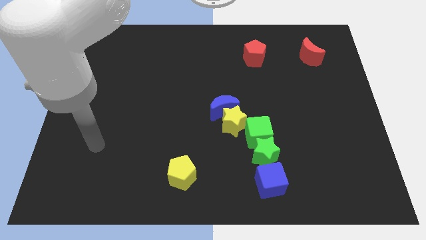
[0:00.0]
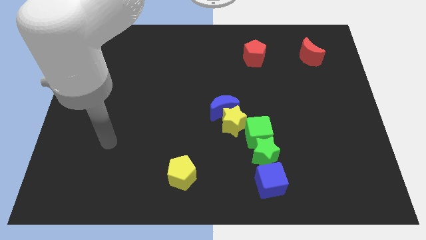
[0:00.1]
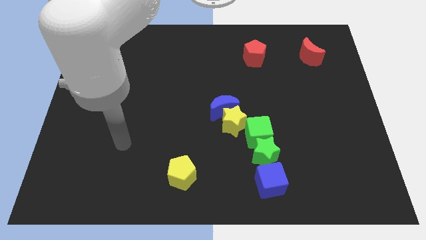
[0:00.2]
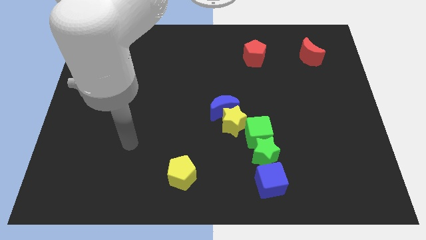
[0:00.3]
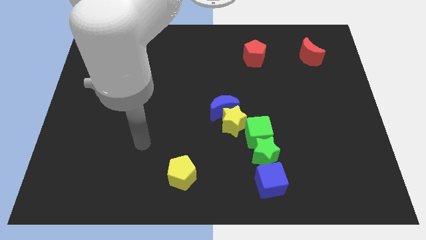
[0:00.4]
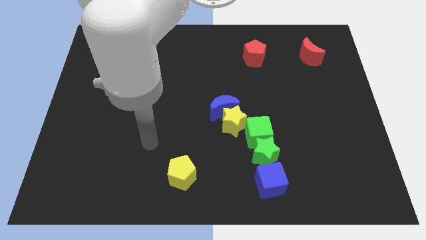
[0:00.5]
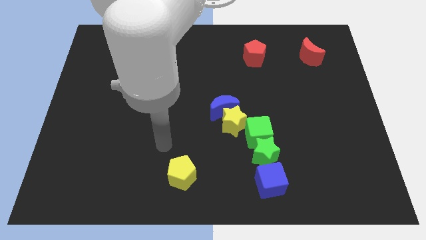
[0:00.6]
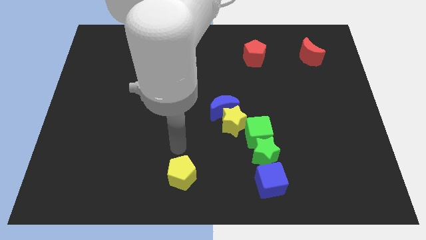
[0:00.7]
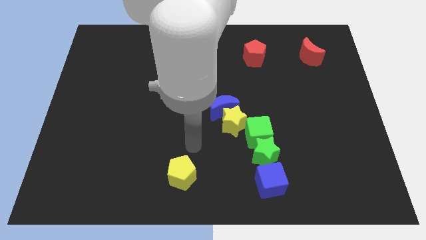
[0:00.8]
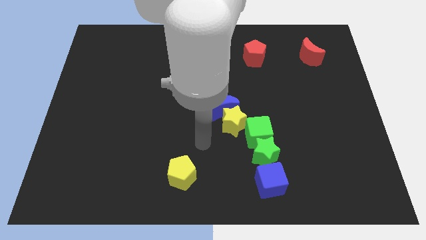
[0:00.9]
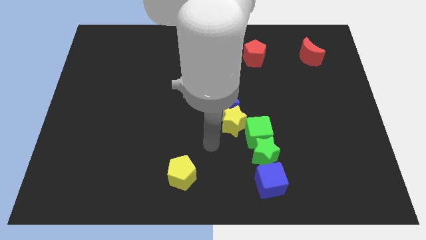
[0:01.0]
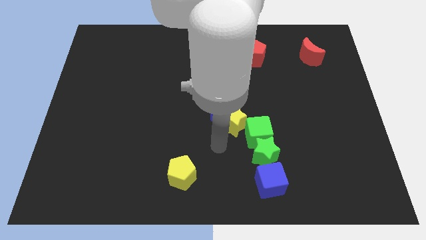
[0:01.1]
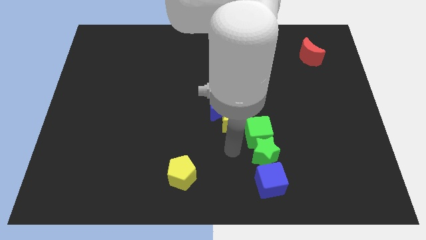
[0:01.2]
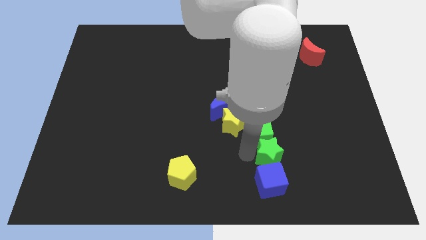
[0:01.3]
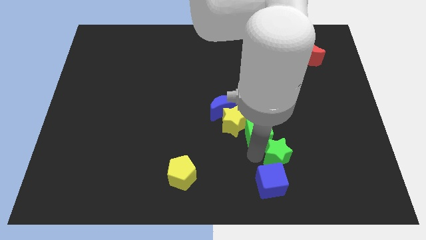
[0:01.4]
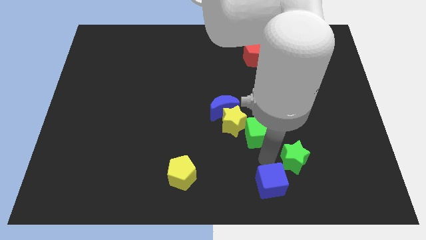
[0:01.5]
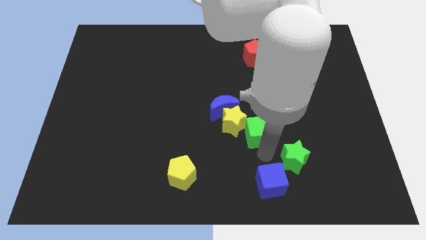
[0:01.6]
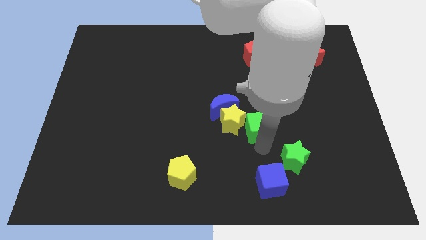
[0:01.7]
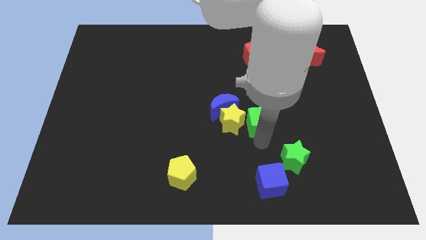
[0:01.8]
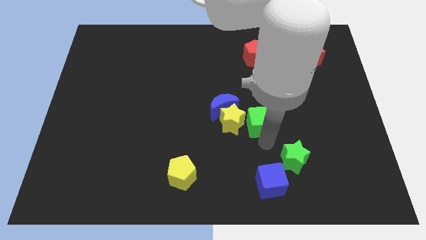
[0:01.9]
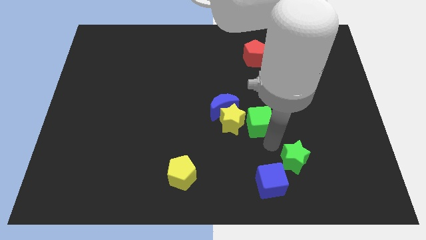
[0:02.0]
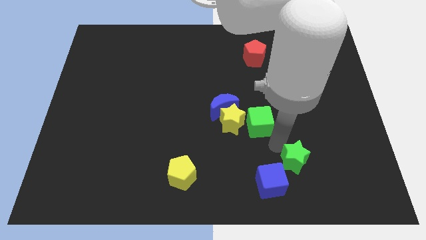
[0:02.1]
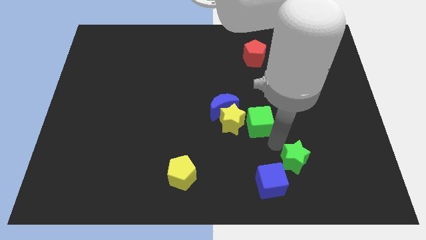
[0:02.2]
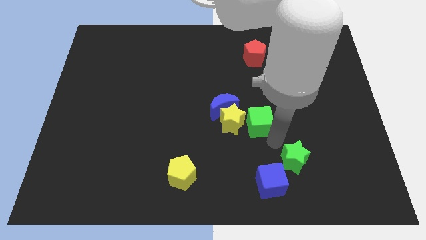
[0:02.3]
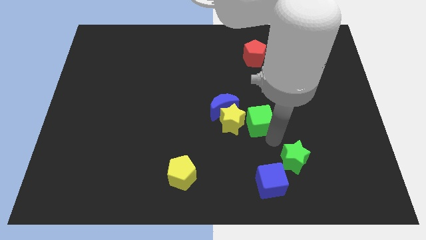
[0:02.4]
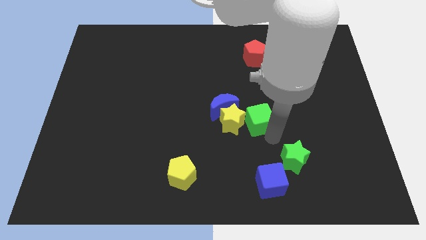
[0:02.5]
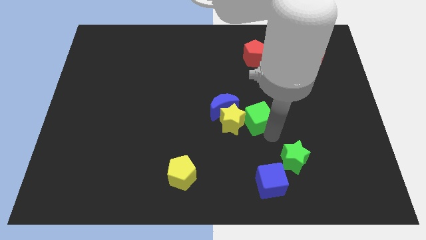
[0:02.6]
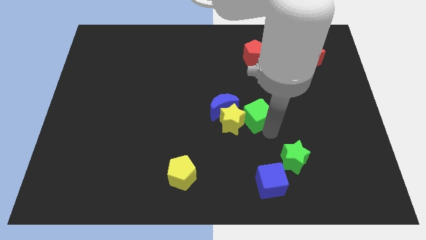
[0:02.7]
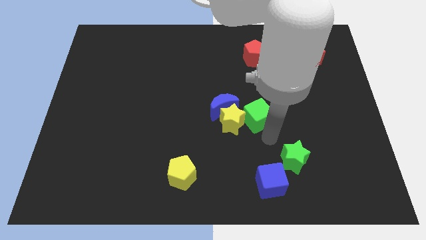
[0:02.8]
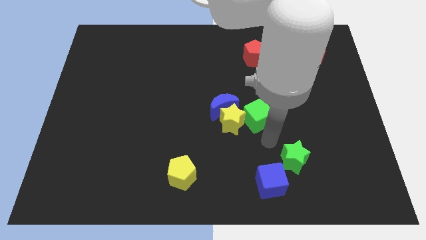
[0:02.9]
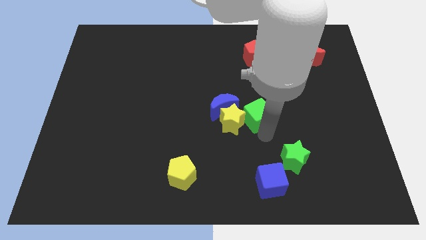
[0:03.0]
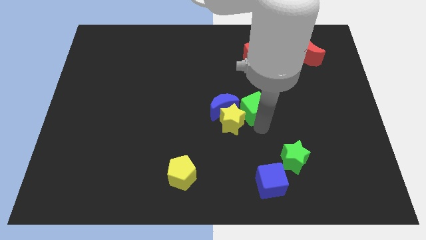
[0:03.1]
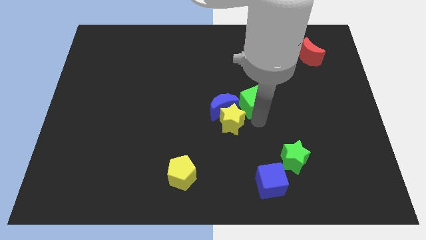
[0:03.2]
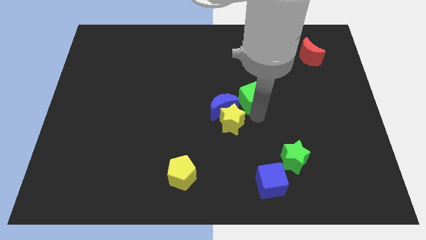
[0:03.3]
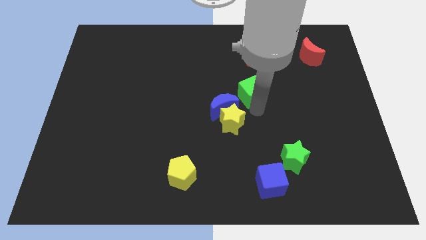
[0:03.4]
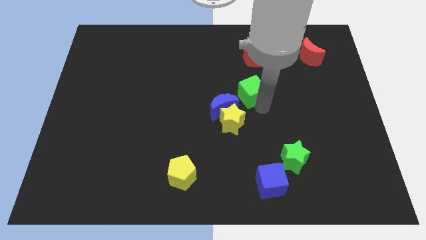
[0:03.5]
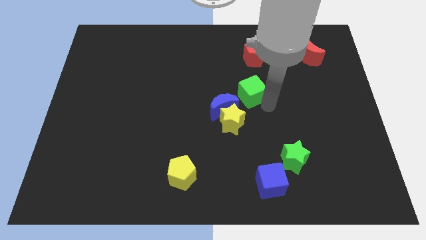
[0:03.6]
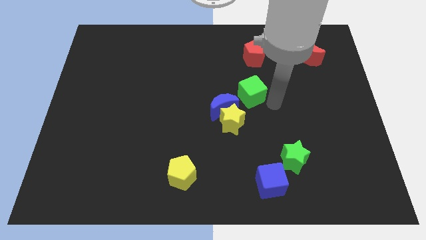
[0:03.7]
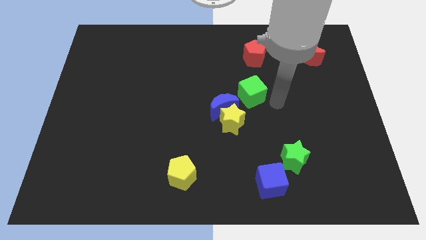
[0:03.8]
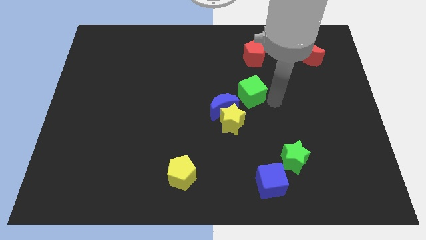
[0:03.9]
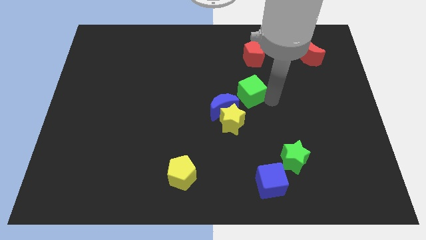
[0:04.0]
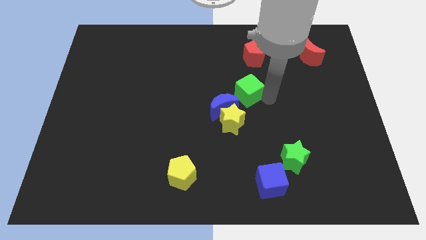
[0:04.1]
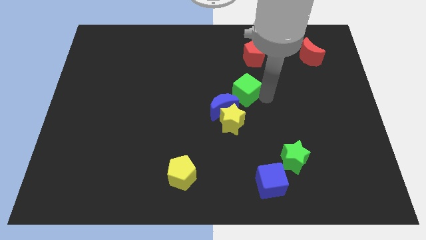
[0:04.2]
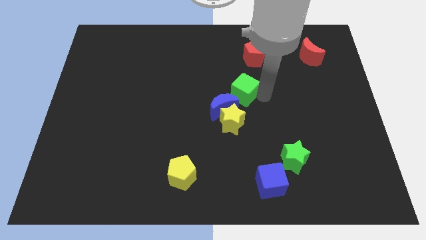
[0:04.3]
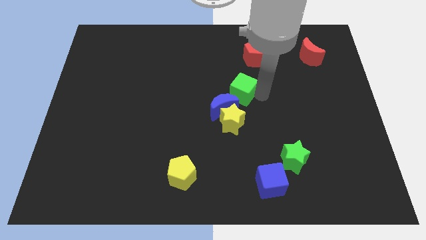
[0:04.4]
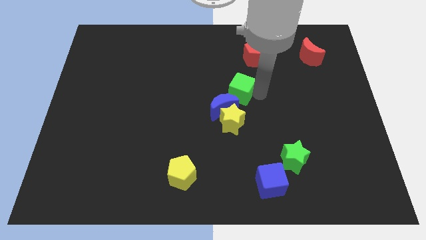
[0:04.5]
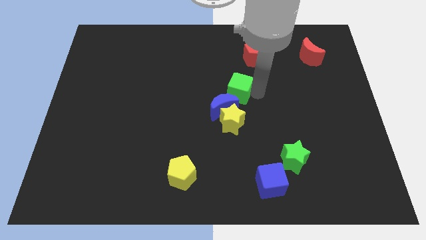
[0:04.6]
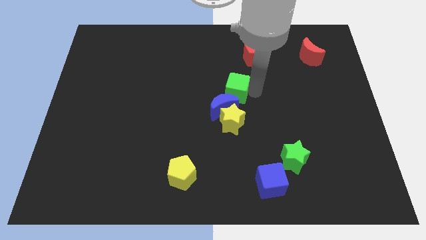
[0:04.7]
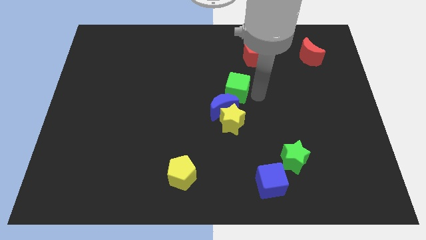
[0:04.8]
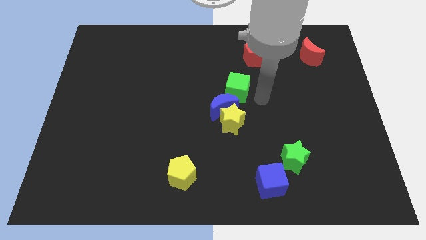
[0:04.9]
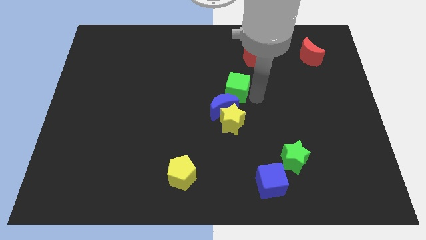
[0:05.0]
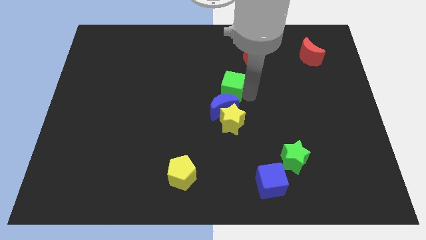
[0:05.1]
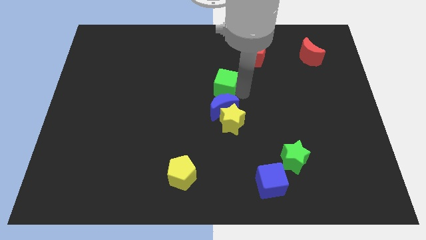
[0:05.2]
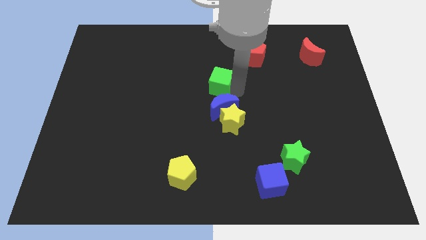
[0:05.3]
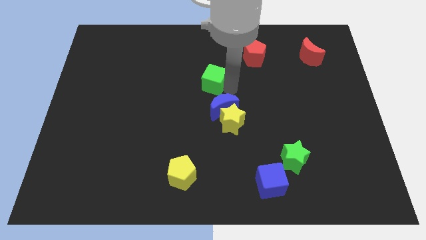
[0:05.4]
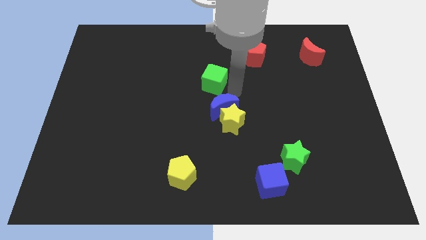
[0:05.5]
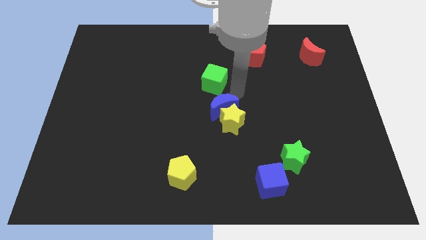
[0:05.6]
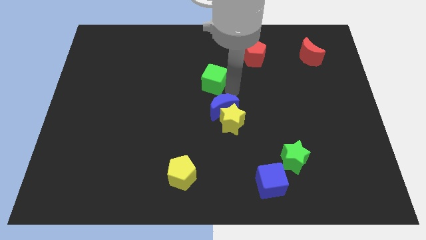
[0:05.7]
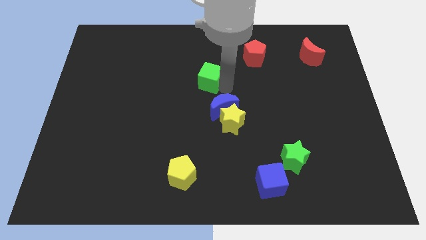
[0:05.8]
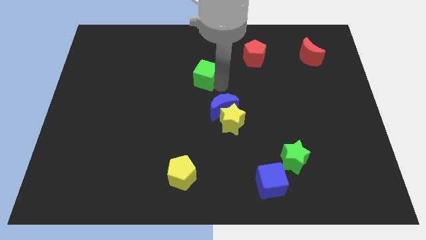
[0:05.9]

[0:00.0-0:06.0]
move the green cube diagonally up and to the left

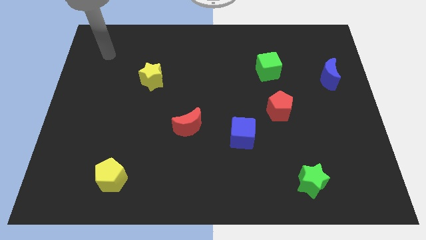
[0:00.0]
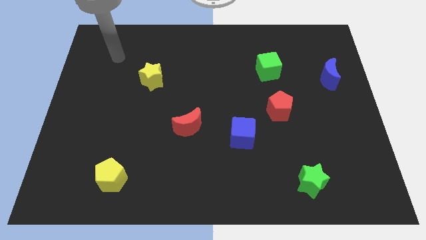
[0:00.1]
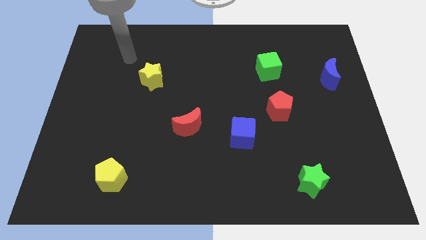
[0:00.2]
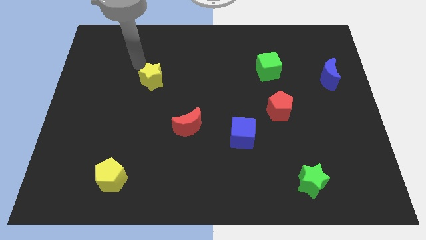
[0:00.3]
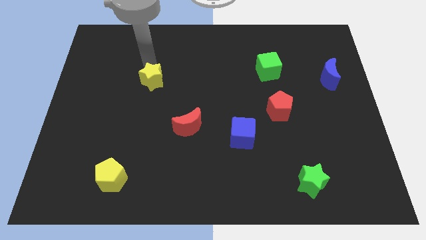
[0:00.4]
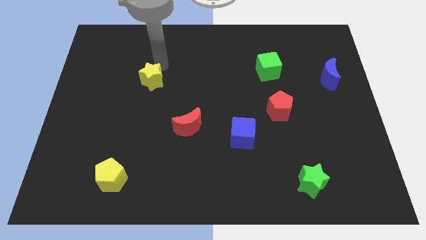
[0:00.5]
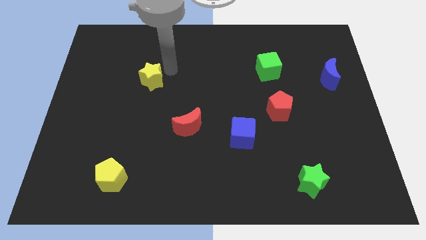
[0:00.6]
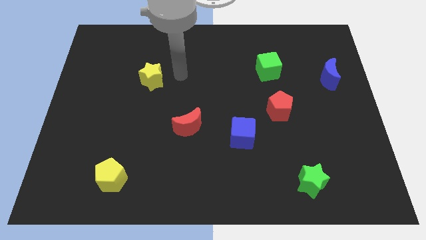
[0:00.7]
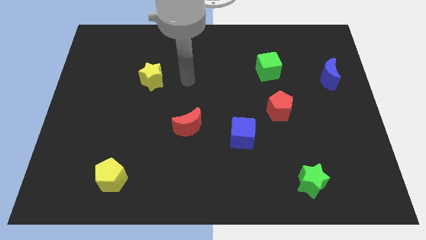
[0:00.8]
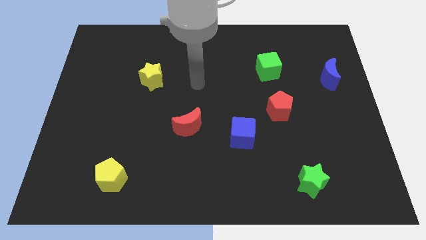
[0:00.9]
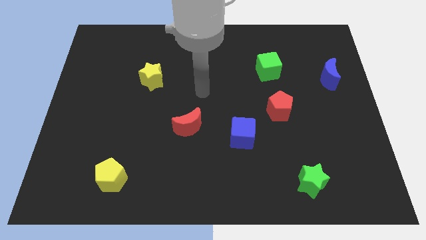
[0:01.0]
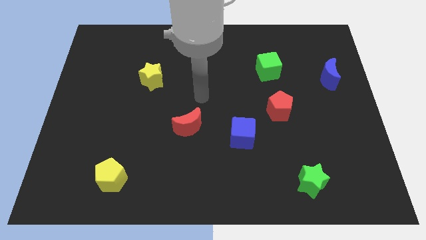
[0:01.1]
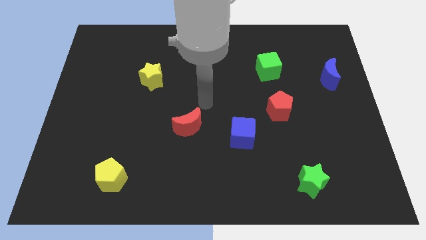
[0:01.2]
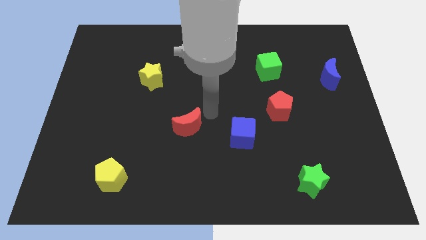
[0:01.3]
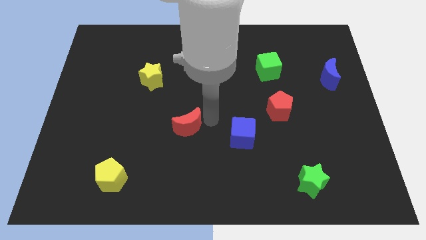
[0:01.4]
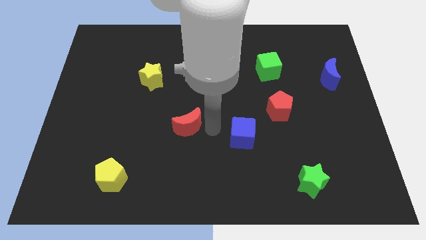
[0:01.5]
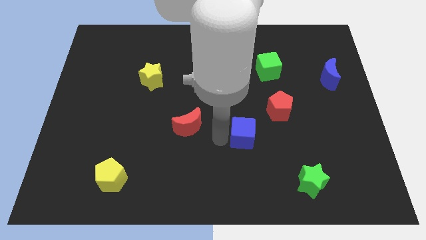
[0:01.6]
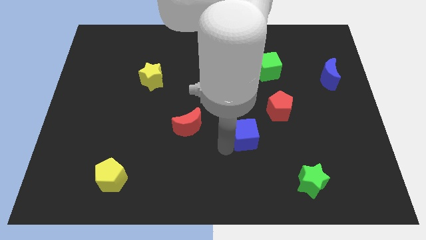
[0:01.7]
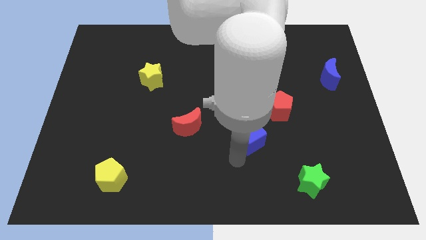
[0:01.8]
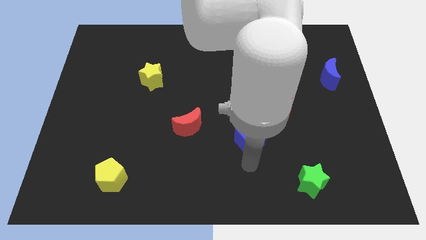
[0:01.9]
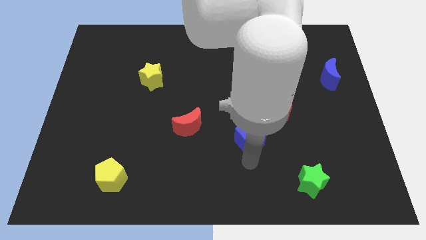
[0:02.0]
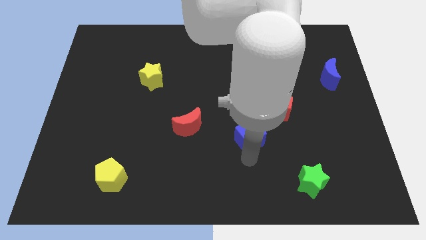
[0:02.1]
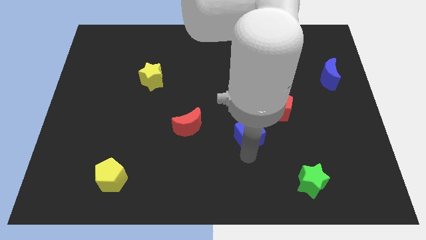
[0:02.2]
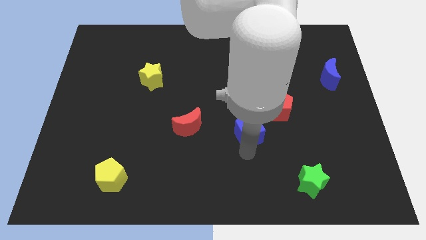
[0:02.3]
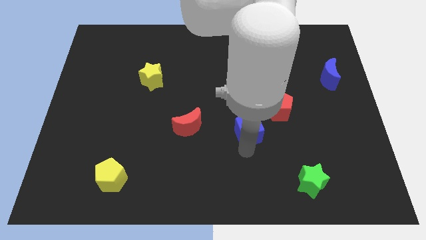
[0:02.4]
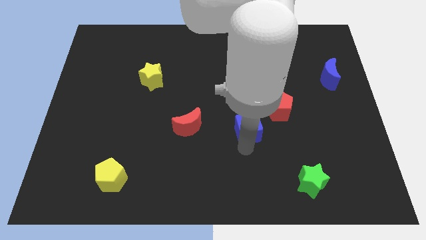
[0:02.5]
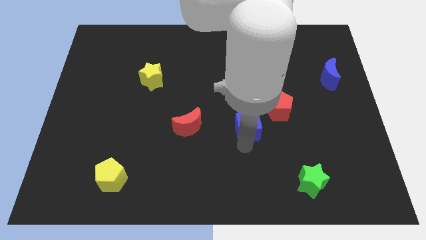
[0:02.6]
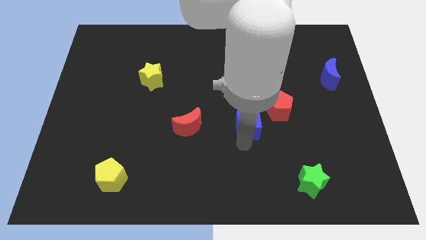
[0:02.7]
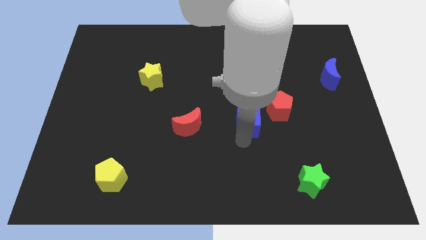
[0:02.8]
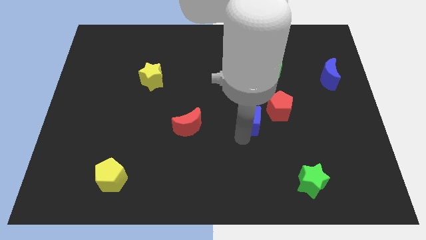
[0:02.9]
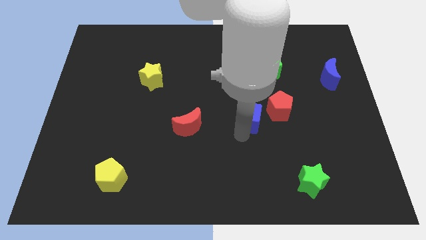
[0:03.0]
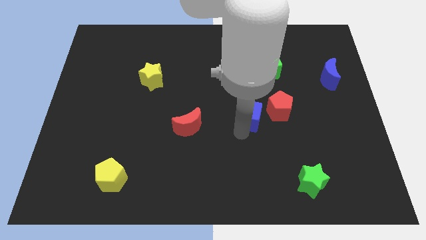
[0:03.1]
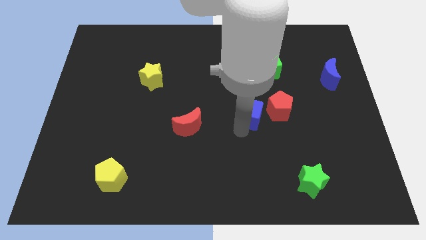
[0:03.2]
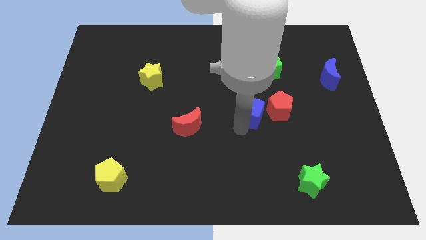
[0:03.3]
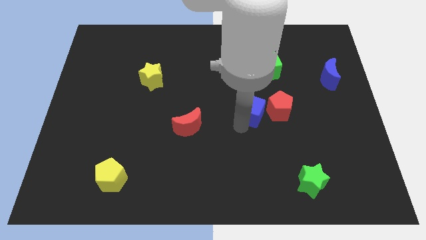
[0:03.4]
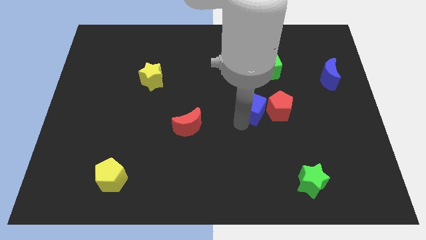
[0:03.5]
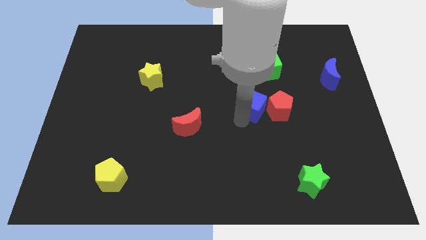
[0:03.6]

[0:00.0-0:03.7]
push the blue cube up and to the right slightly
